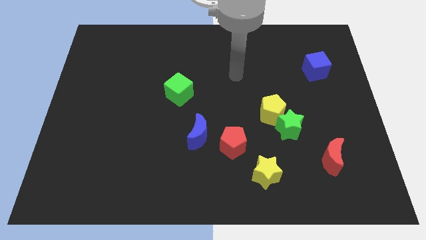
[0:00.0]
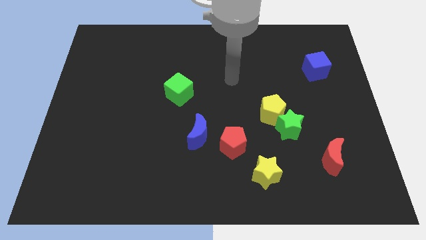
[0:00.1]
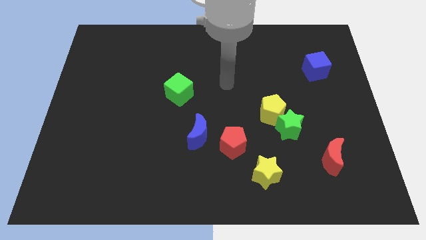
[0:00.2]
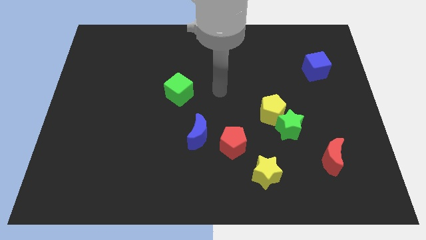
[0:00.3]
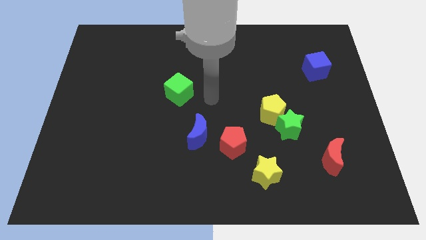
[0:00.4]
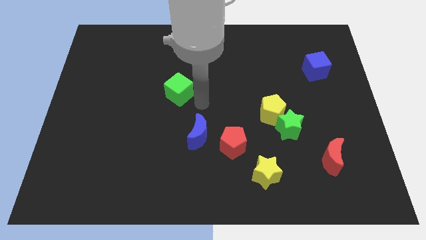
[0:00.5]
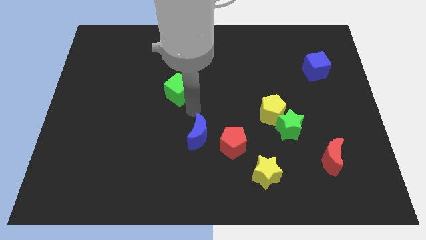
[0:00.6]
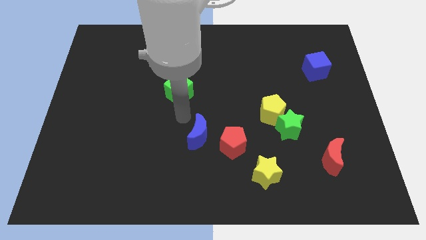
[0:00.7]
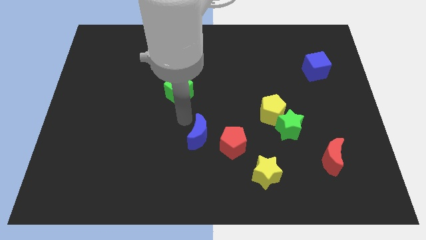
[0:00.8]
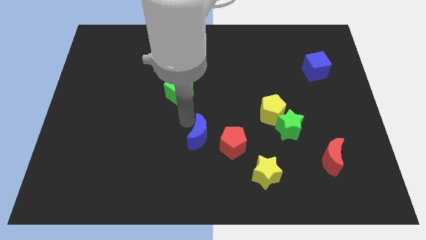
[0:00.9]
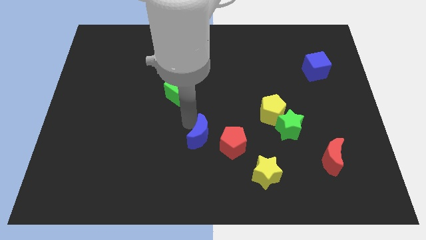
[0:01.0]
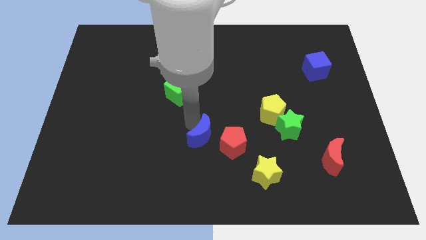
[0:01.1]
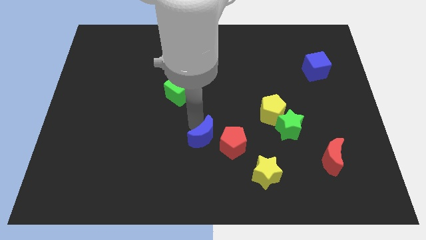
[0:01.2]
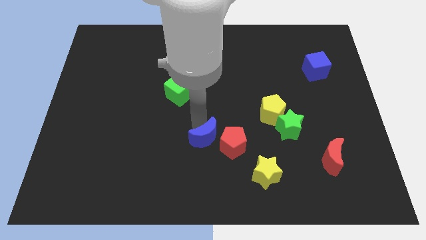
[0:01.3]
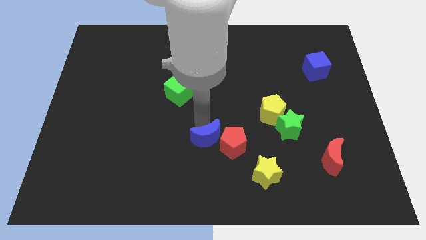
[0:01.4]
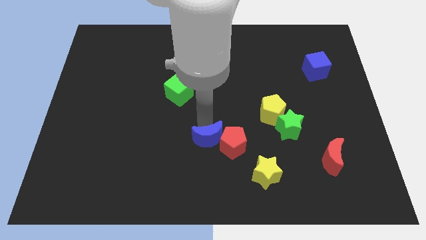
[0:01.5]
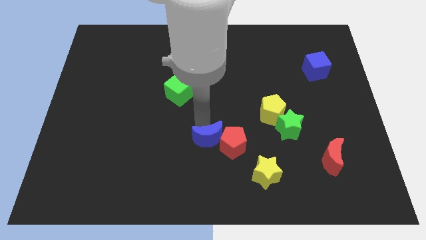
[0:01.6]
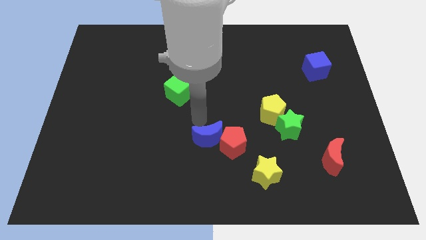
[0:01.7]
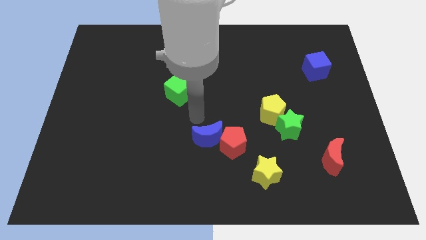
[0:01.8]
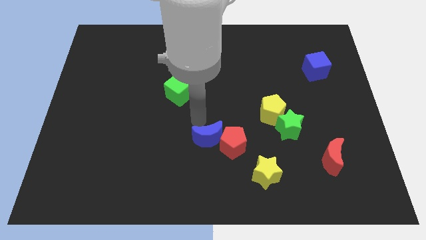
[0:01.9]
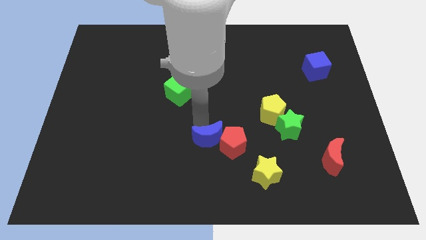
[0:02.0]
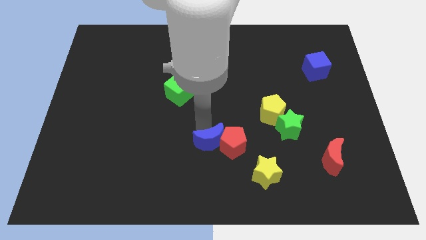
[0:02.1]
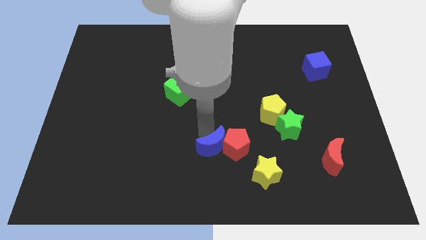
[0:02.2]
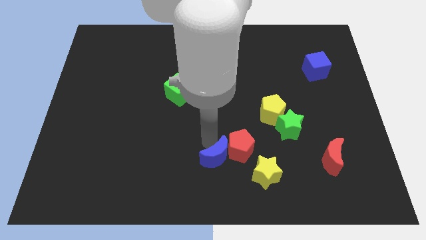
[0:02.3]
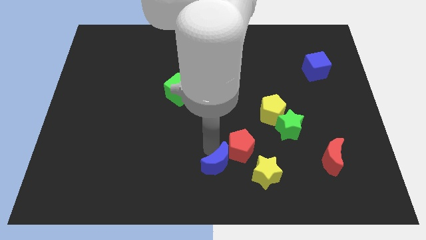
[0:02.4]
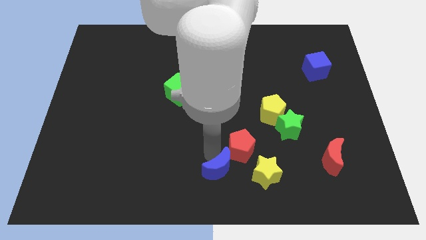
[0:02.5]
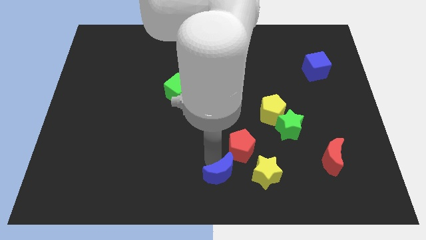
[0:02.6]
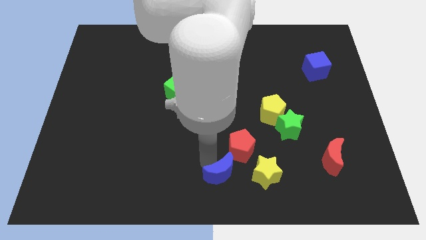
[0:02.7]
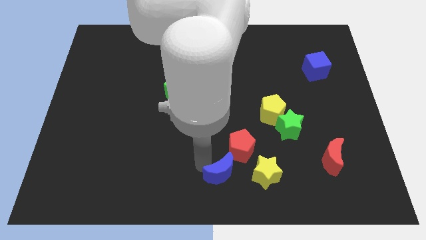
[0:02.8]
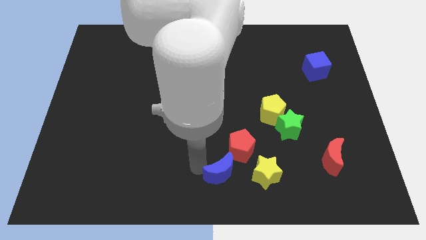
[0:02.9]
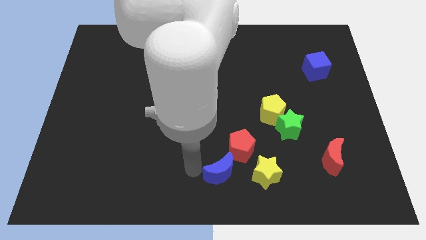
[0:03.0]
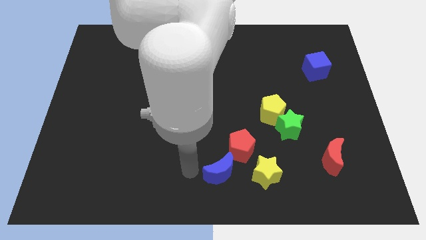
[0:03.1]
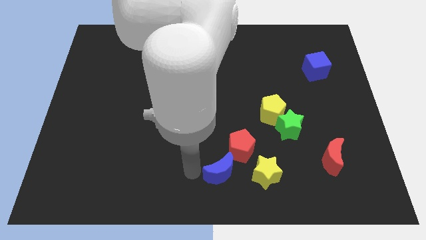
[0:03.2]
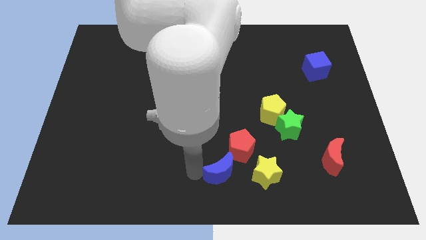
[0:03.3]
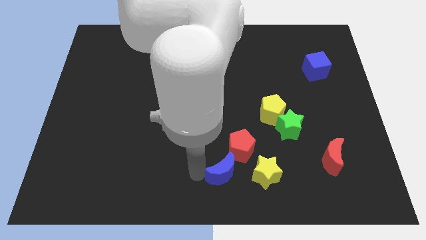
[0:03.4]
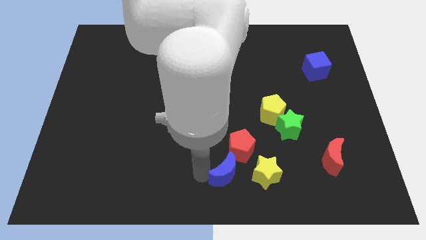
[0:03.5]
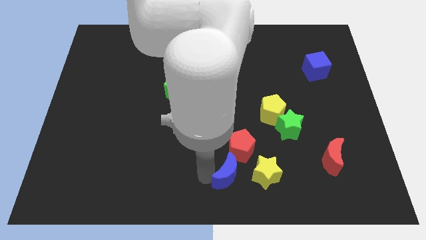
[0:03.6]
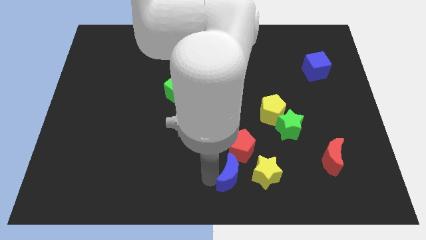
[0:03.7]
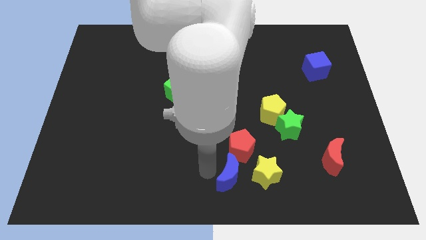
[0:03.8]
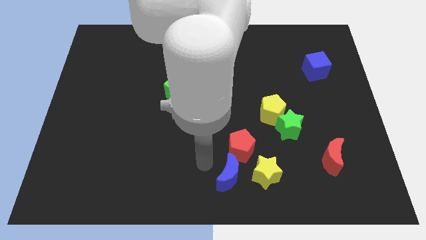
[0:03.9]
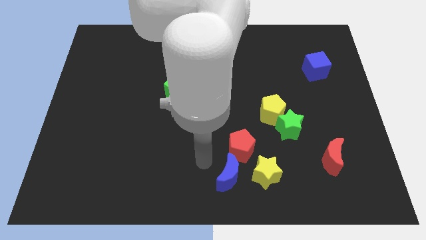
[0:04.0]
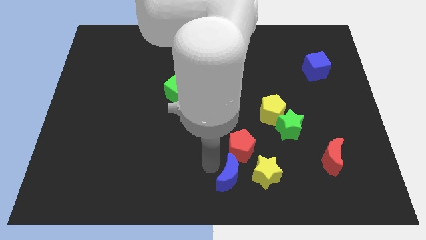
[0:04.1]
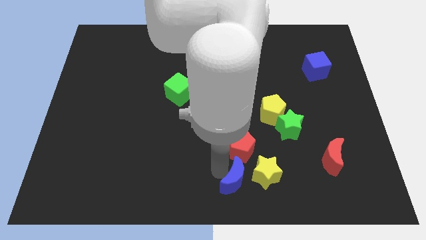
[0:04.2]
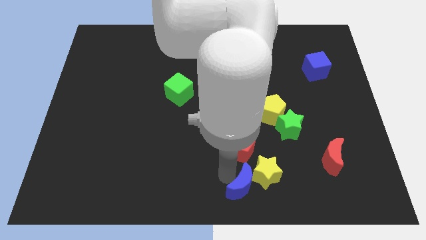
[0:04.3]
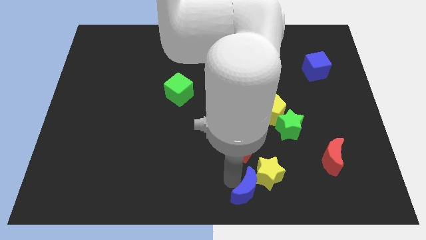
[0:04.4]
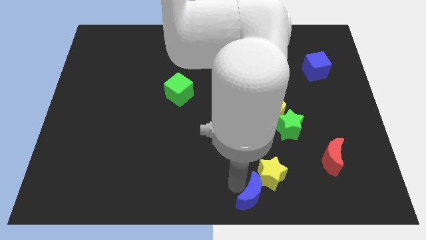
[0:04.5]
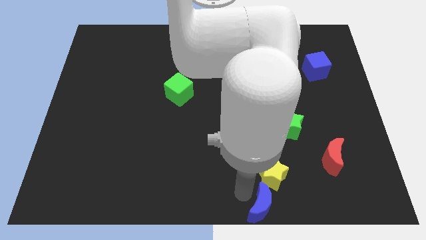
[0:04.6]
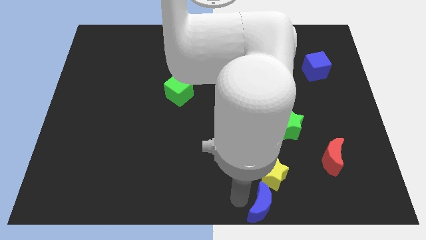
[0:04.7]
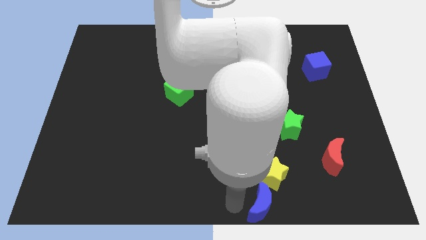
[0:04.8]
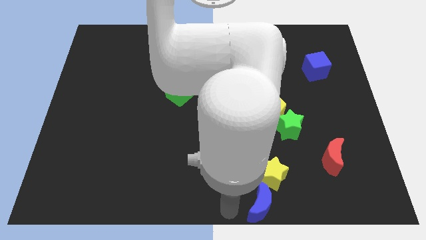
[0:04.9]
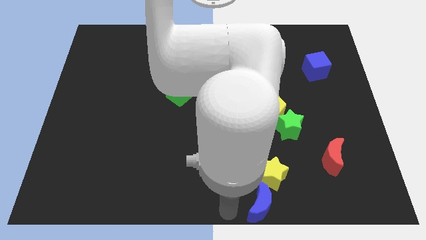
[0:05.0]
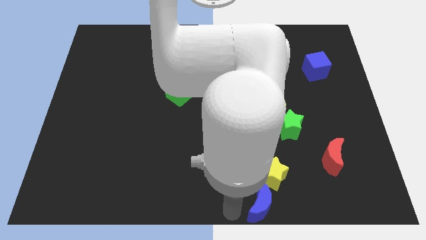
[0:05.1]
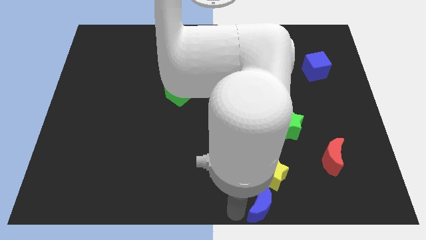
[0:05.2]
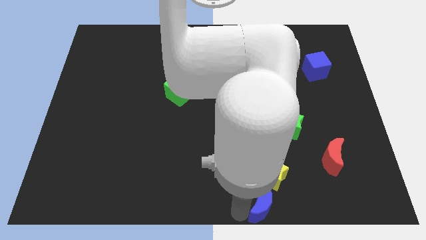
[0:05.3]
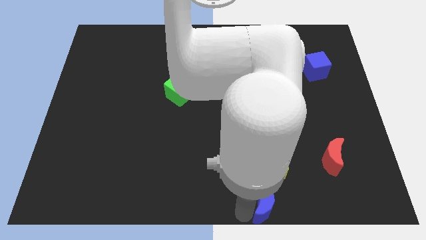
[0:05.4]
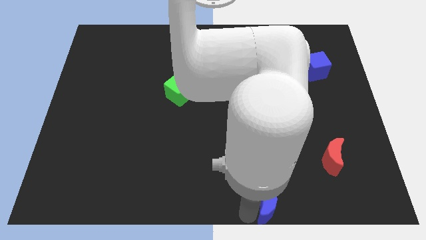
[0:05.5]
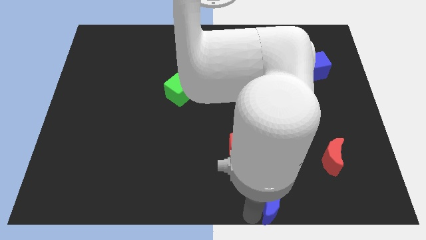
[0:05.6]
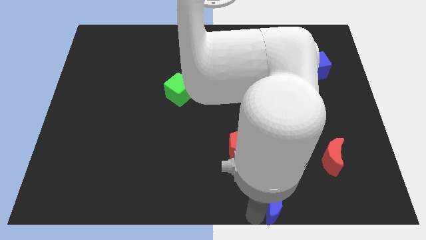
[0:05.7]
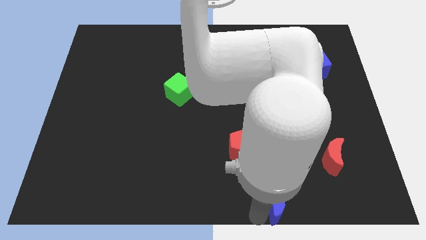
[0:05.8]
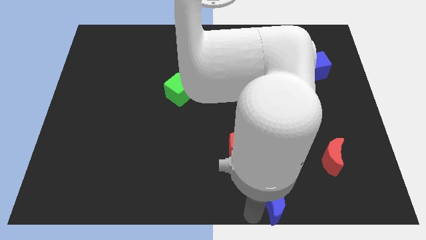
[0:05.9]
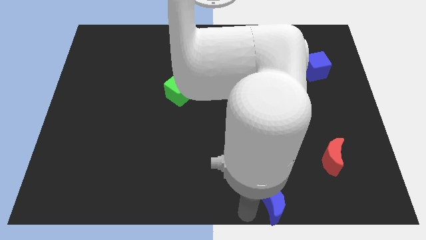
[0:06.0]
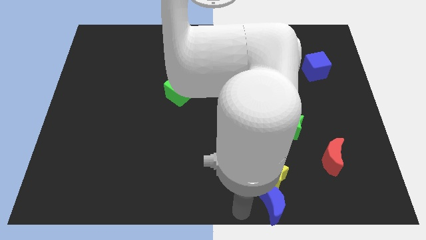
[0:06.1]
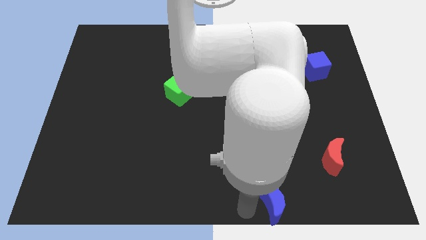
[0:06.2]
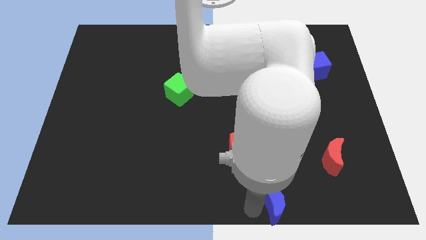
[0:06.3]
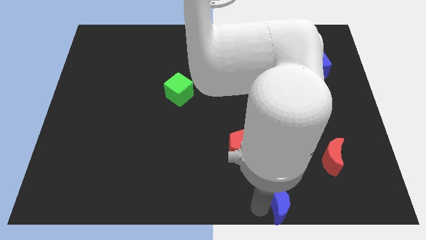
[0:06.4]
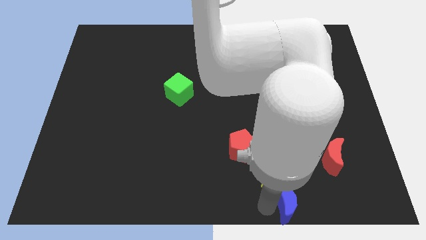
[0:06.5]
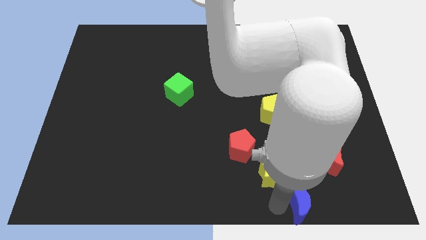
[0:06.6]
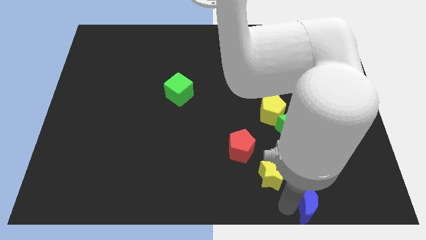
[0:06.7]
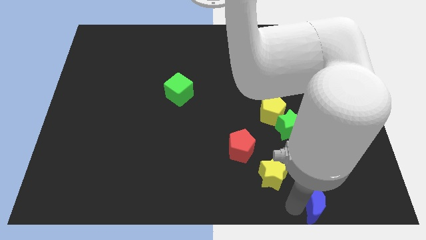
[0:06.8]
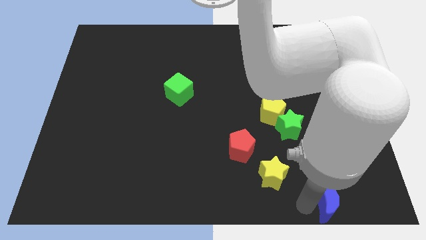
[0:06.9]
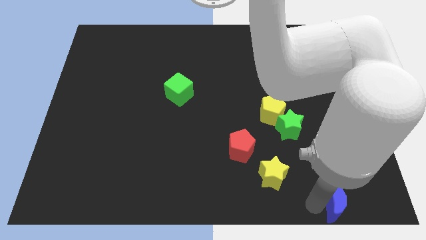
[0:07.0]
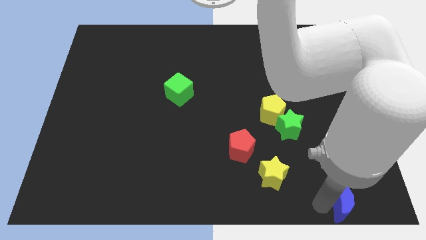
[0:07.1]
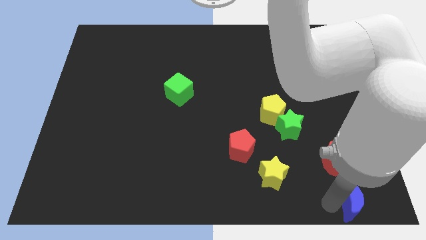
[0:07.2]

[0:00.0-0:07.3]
push the blue moon to the bottom right
